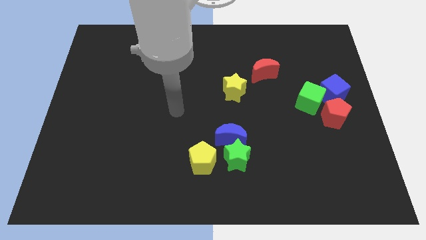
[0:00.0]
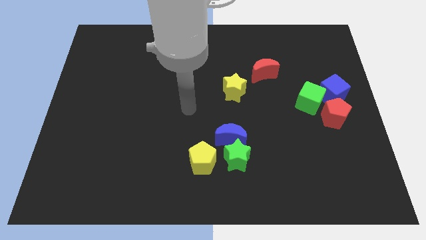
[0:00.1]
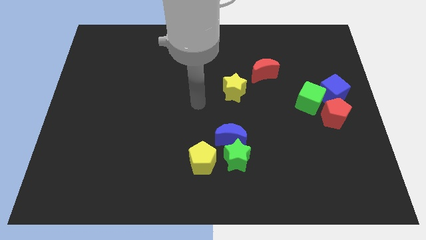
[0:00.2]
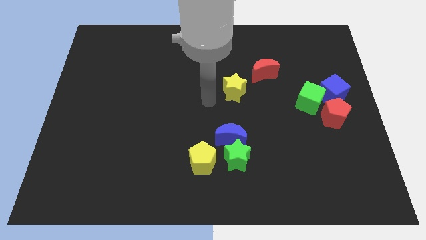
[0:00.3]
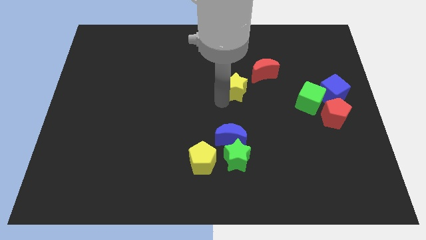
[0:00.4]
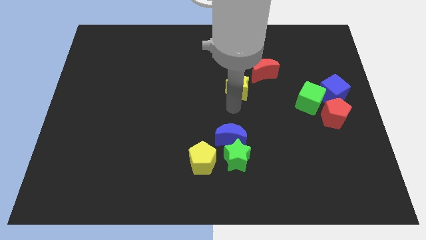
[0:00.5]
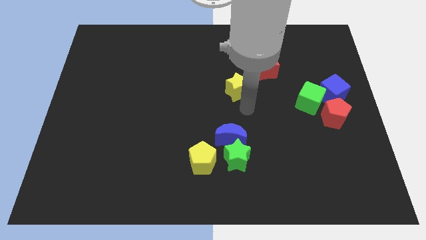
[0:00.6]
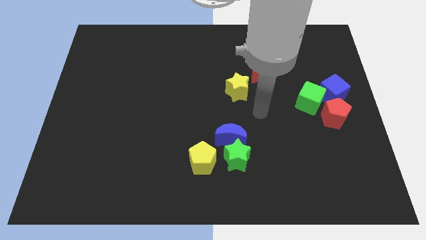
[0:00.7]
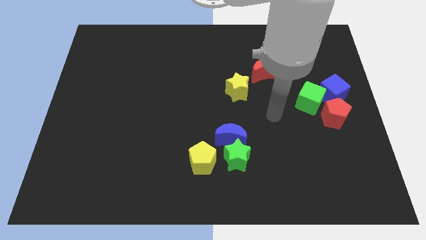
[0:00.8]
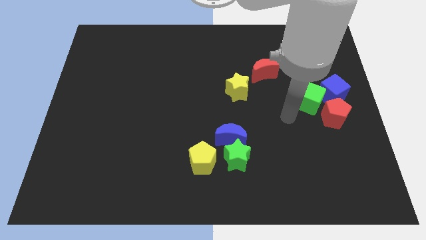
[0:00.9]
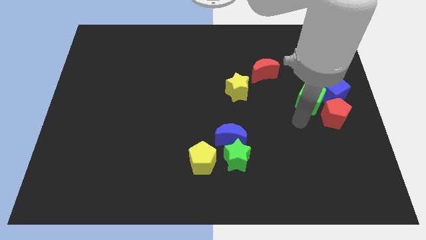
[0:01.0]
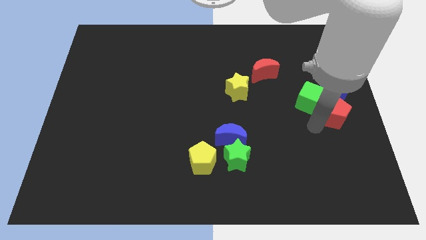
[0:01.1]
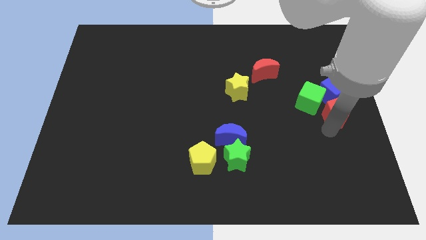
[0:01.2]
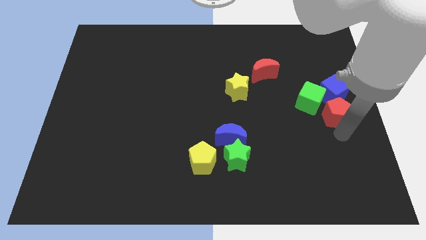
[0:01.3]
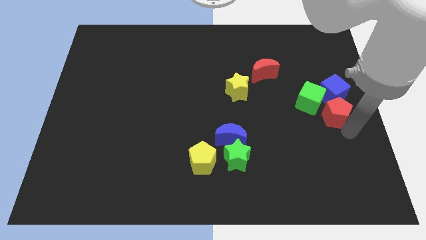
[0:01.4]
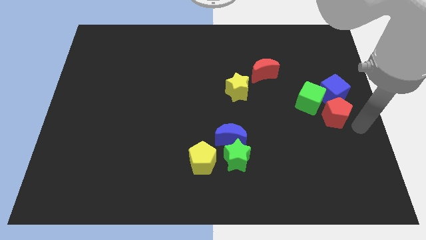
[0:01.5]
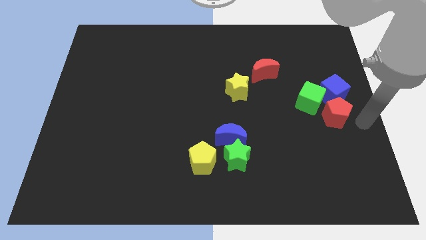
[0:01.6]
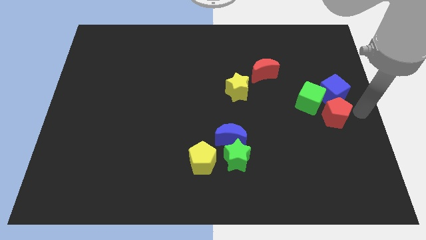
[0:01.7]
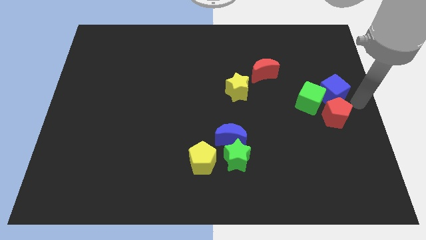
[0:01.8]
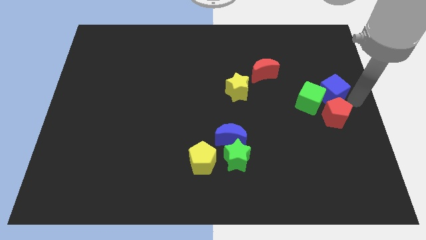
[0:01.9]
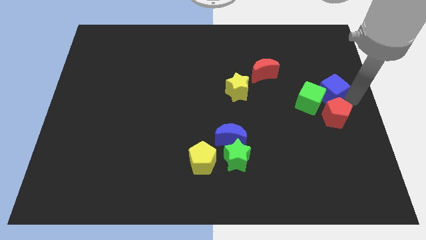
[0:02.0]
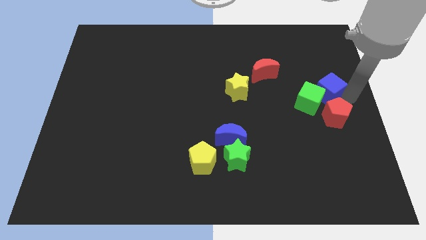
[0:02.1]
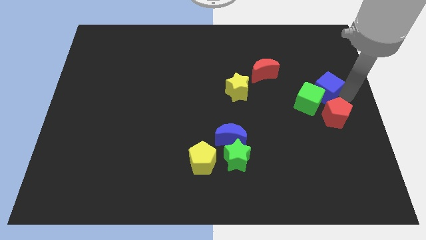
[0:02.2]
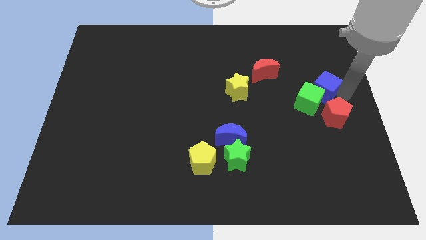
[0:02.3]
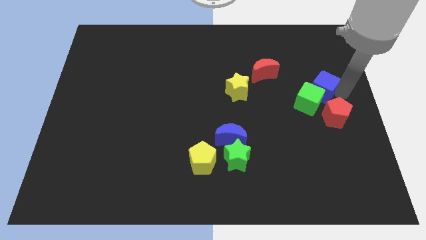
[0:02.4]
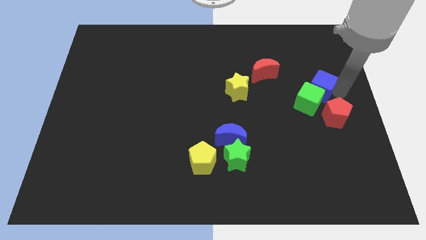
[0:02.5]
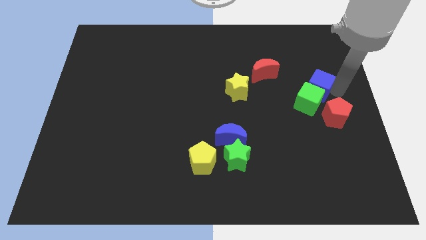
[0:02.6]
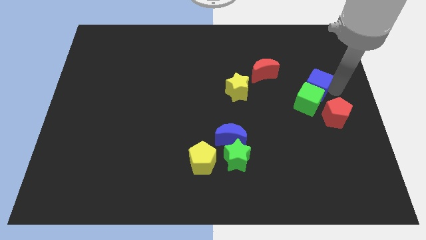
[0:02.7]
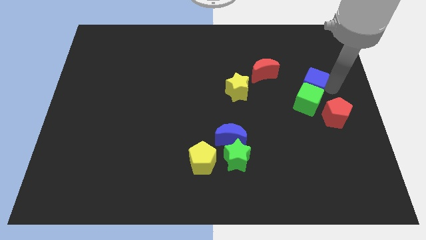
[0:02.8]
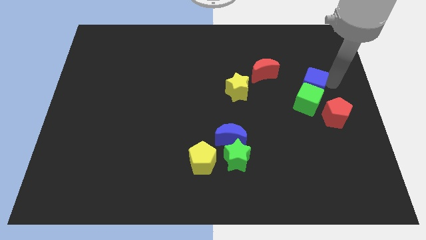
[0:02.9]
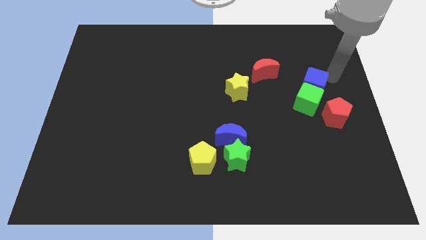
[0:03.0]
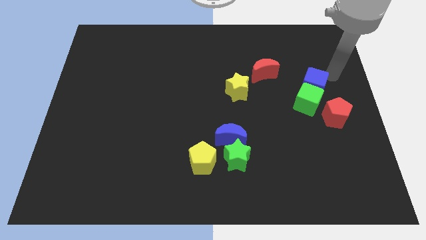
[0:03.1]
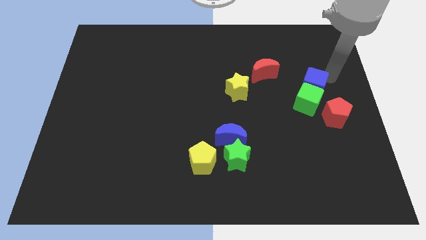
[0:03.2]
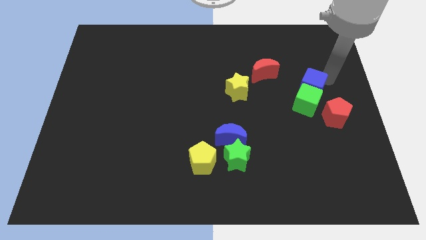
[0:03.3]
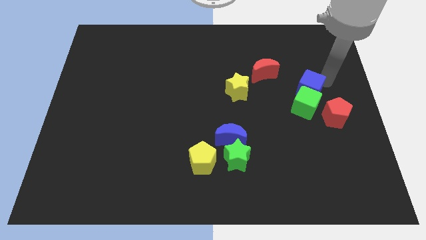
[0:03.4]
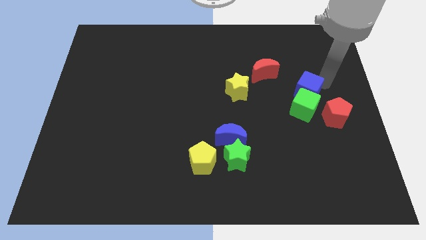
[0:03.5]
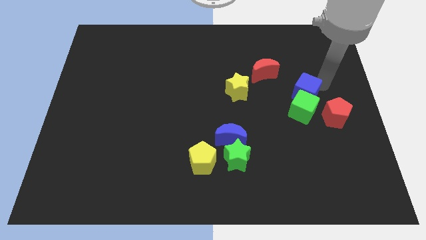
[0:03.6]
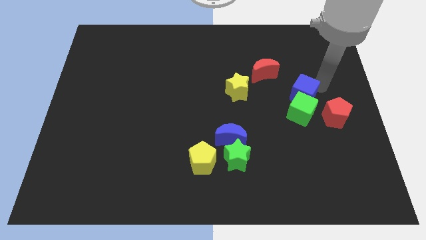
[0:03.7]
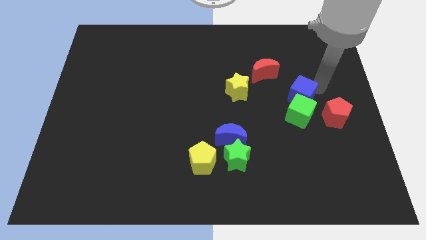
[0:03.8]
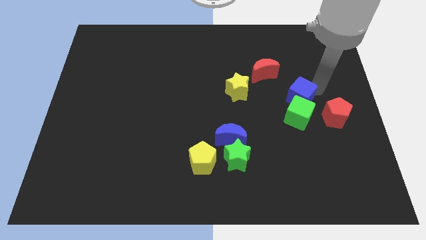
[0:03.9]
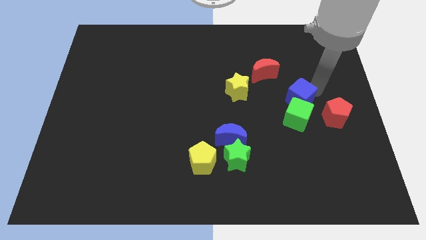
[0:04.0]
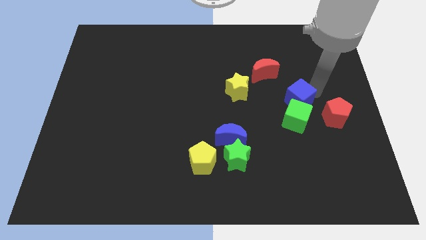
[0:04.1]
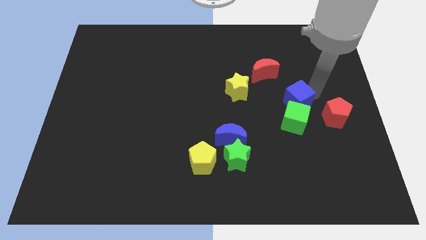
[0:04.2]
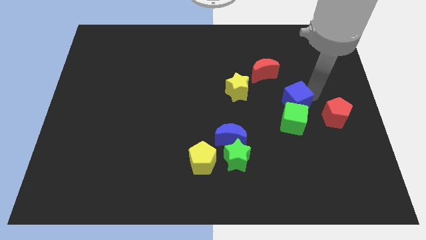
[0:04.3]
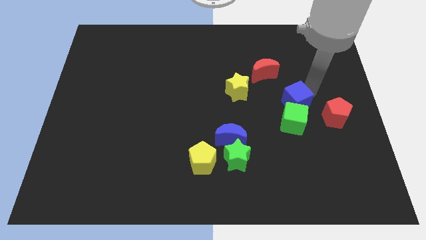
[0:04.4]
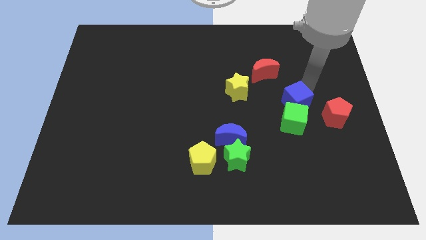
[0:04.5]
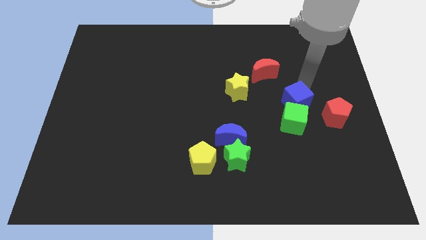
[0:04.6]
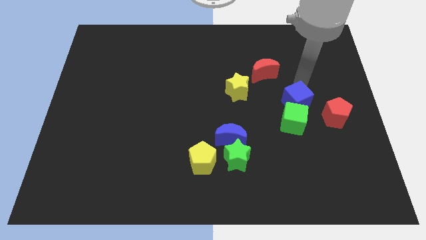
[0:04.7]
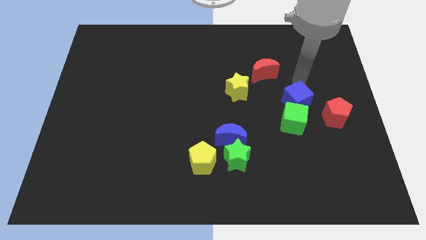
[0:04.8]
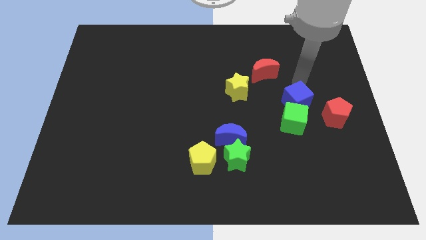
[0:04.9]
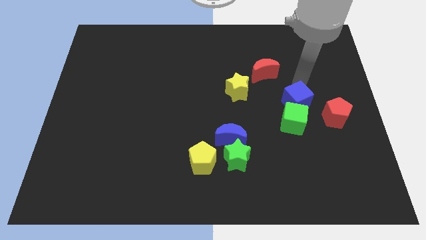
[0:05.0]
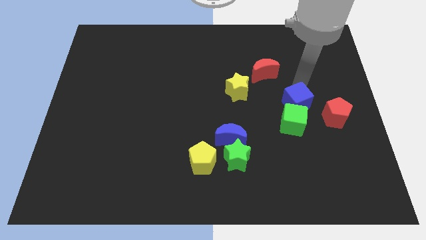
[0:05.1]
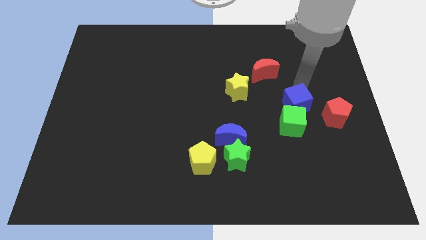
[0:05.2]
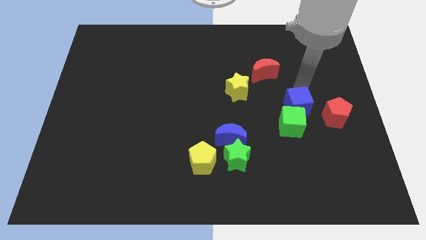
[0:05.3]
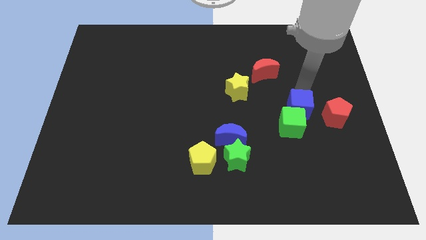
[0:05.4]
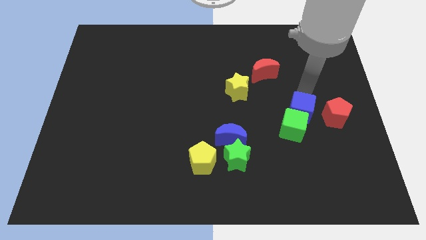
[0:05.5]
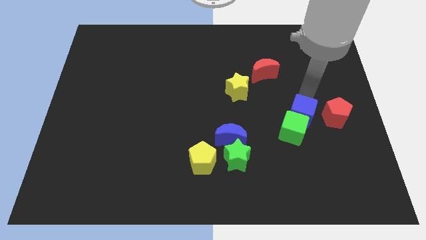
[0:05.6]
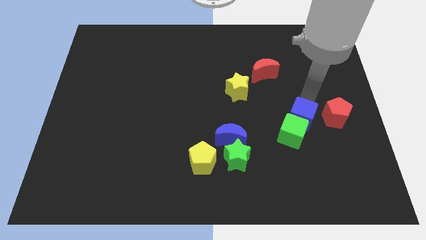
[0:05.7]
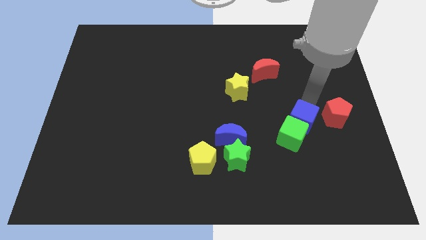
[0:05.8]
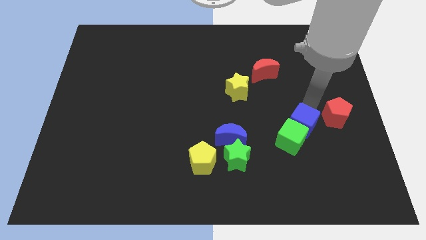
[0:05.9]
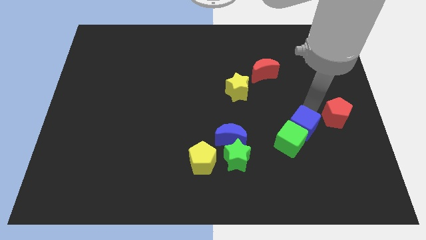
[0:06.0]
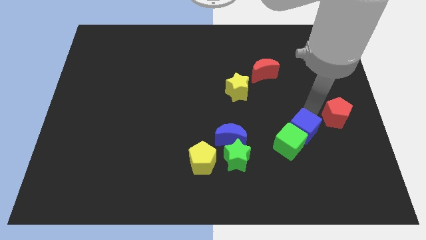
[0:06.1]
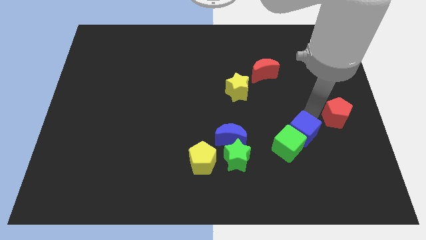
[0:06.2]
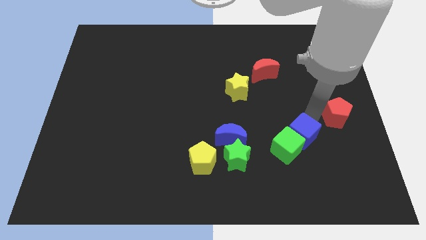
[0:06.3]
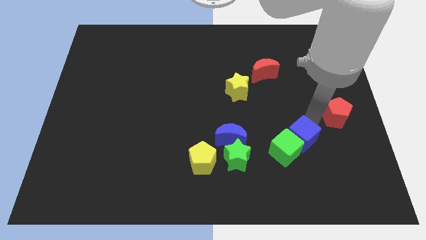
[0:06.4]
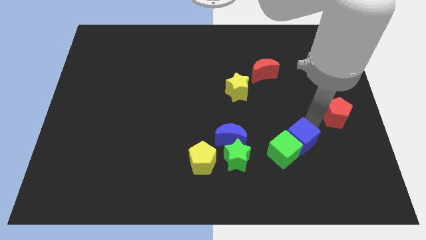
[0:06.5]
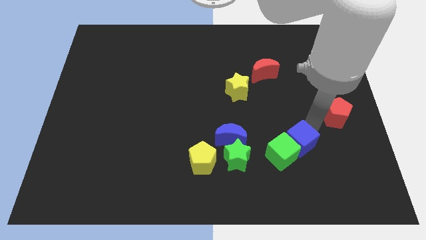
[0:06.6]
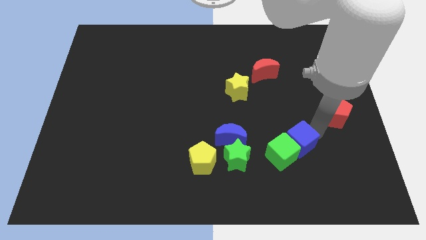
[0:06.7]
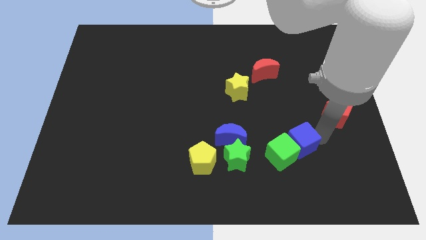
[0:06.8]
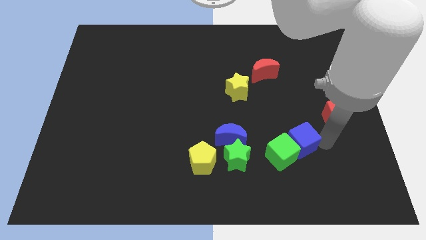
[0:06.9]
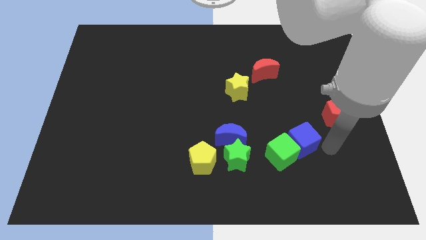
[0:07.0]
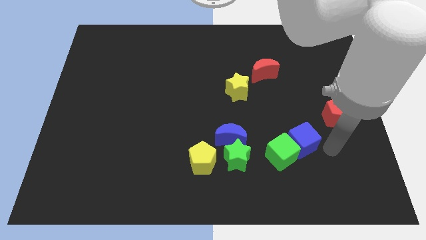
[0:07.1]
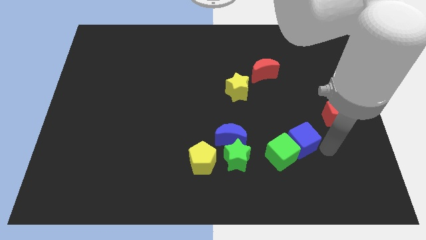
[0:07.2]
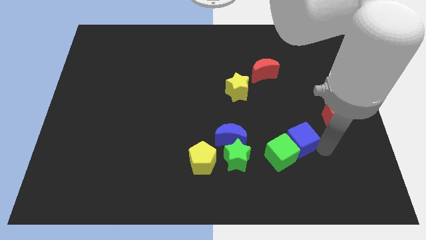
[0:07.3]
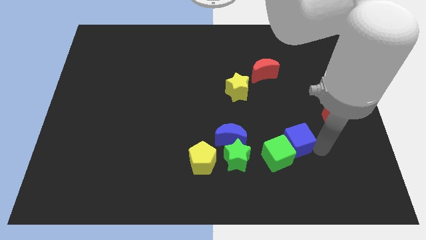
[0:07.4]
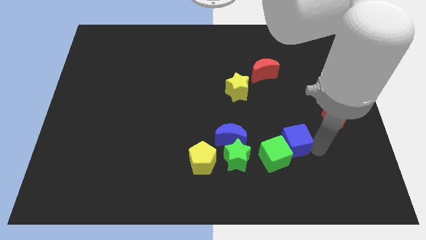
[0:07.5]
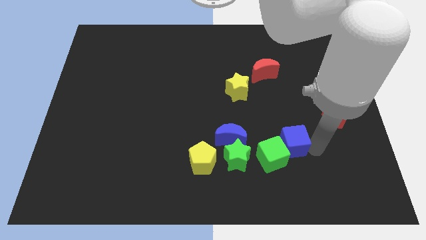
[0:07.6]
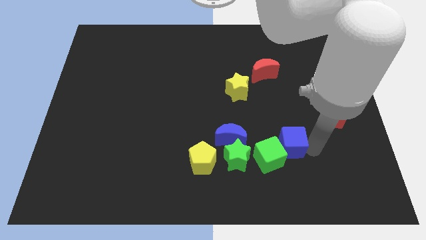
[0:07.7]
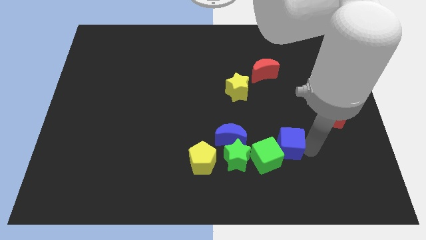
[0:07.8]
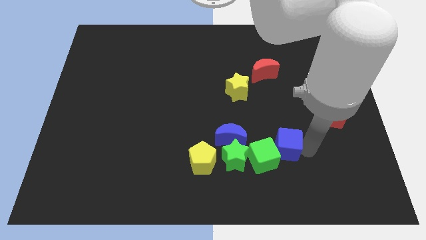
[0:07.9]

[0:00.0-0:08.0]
slide the blue cube diagonally down and left

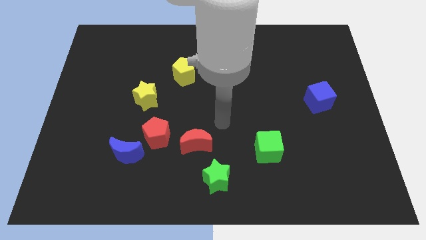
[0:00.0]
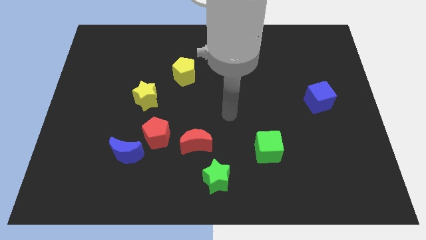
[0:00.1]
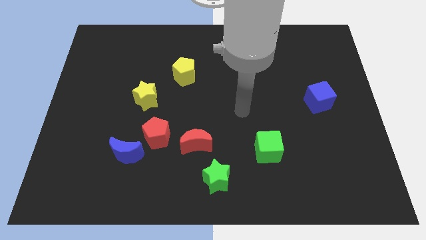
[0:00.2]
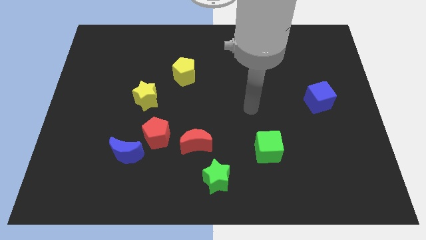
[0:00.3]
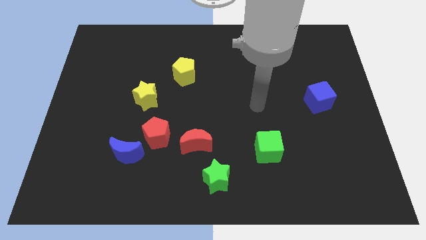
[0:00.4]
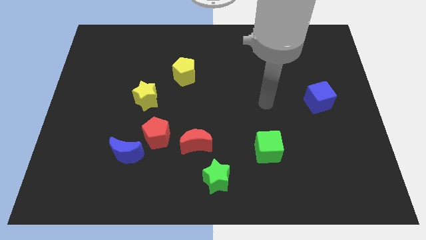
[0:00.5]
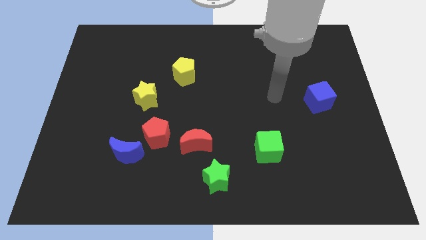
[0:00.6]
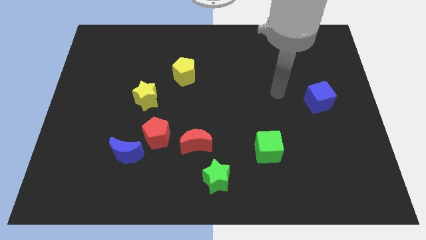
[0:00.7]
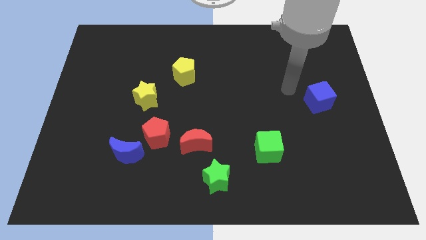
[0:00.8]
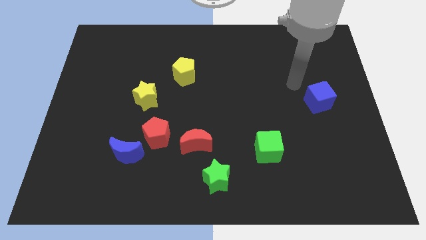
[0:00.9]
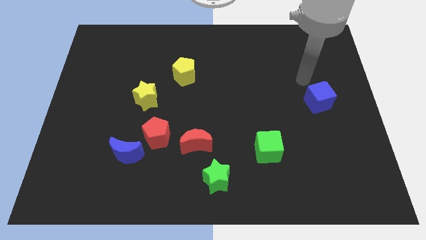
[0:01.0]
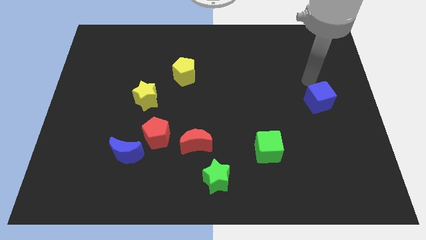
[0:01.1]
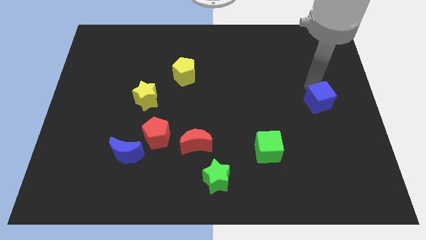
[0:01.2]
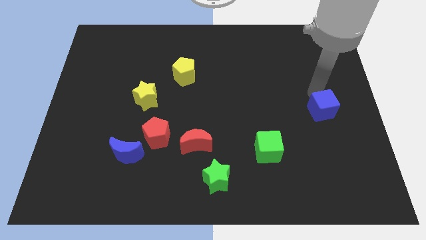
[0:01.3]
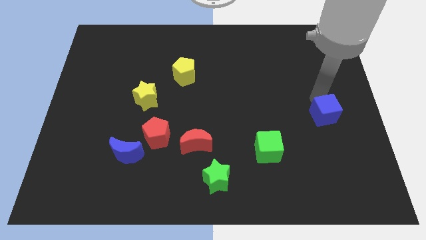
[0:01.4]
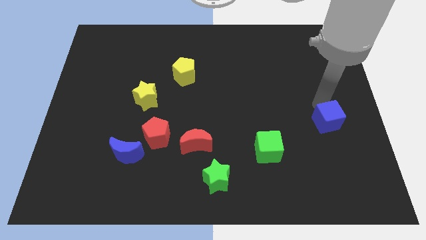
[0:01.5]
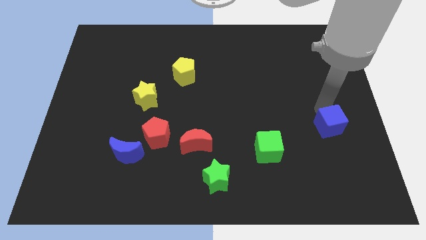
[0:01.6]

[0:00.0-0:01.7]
slightly move the blue cube down
